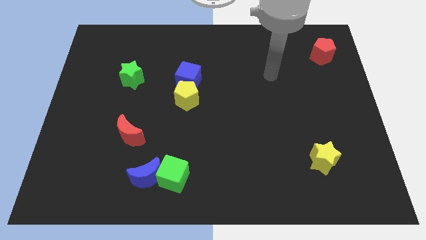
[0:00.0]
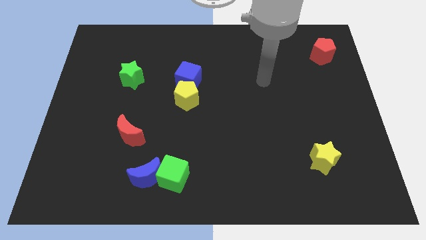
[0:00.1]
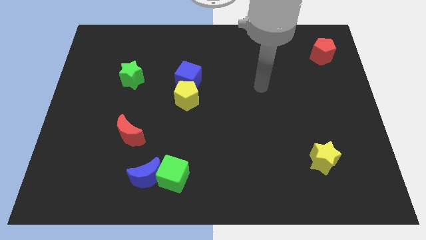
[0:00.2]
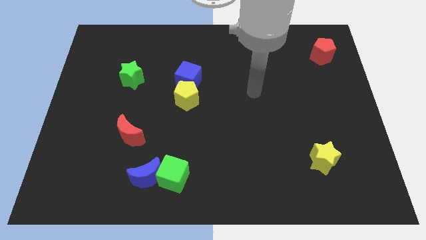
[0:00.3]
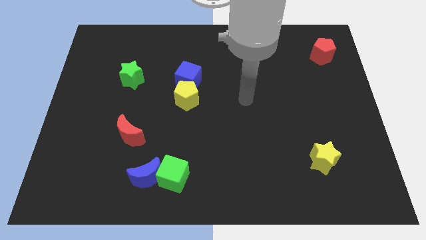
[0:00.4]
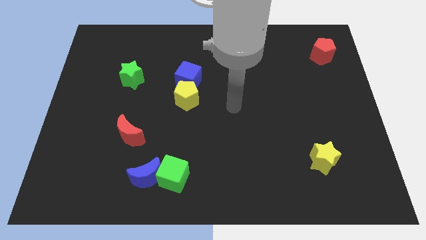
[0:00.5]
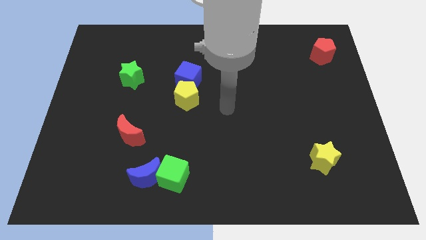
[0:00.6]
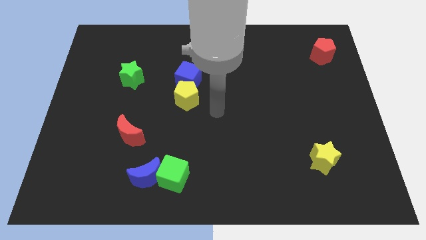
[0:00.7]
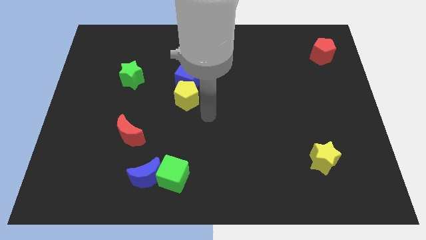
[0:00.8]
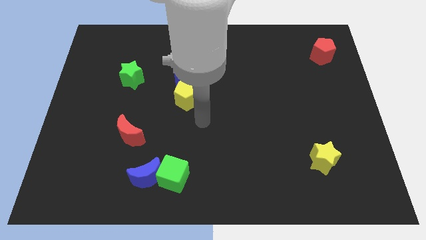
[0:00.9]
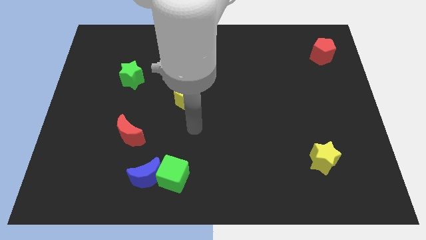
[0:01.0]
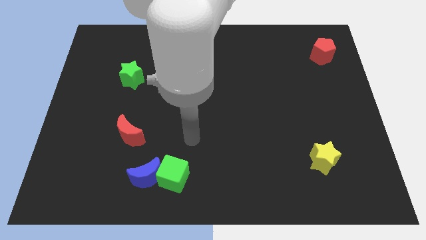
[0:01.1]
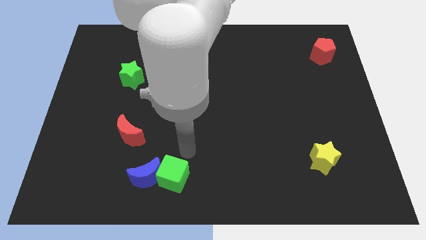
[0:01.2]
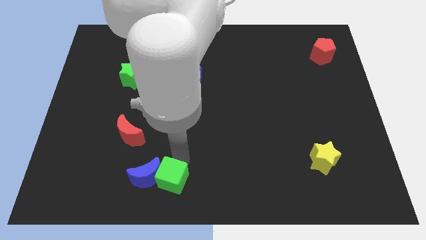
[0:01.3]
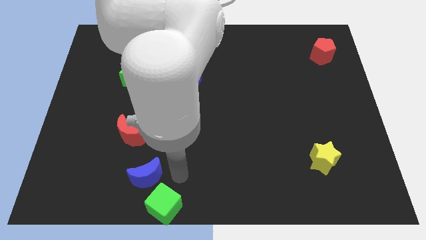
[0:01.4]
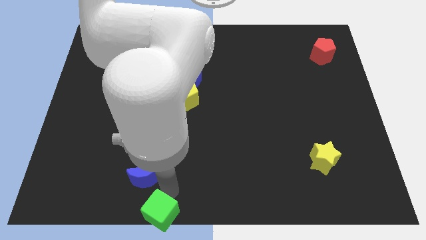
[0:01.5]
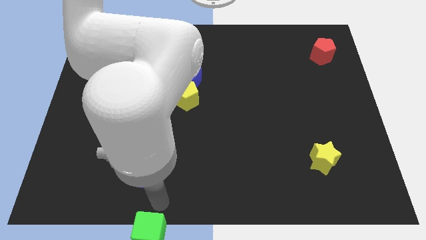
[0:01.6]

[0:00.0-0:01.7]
separate the blue moon from the green cube

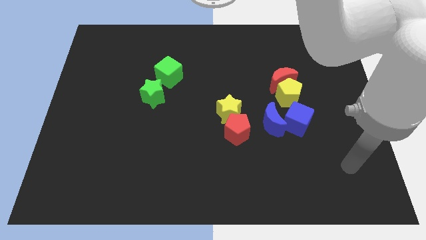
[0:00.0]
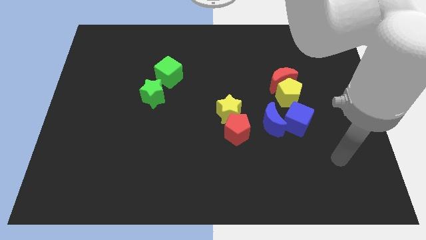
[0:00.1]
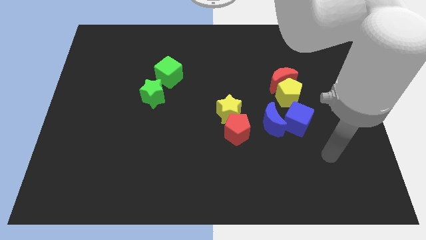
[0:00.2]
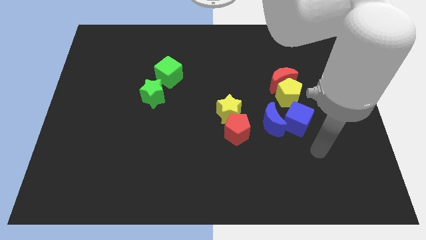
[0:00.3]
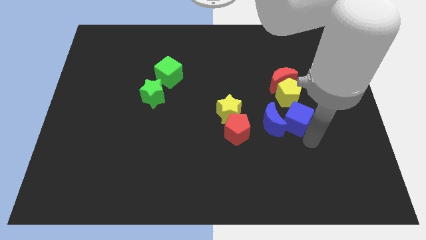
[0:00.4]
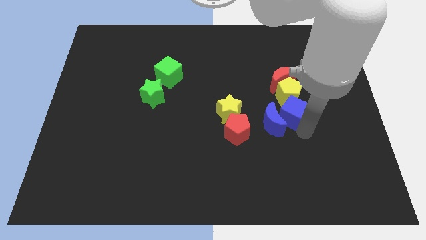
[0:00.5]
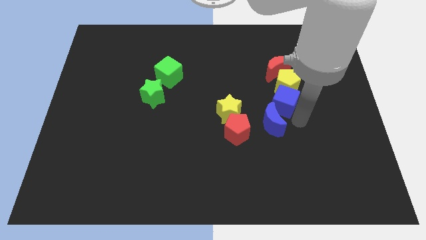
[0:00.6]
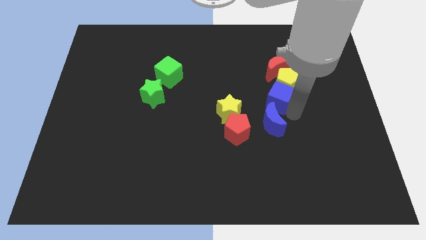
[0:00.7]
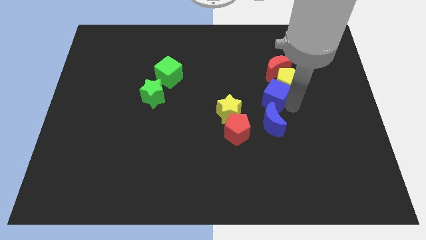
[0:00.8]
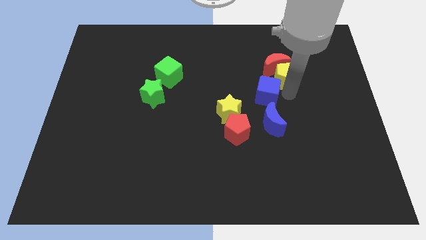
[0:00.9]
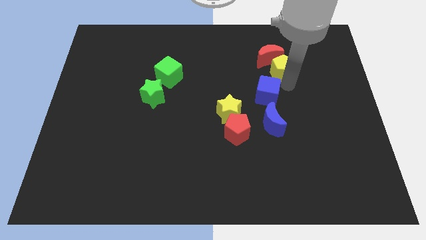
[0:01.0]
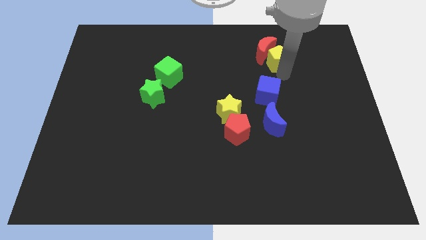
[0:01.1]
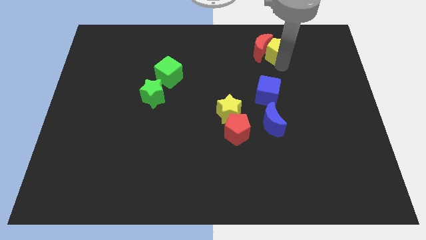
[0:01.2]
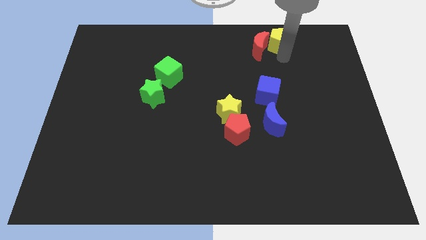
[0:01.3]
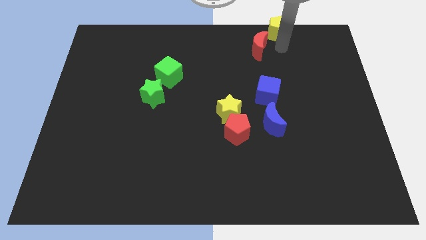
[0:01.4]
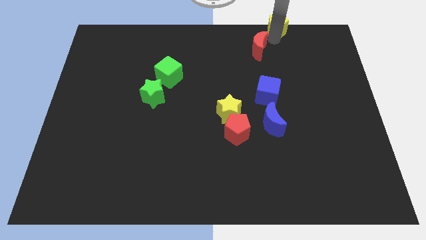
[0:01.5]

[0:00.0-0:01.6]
separate the red moon from the yellow pentagon

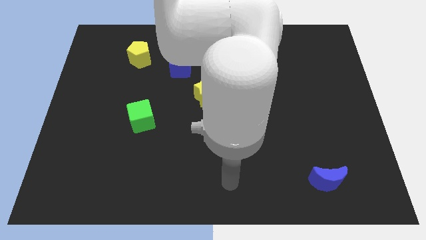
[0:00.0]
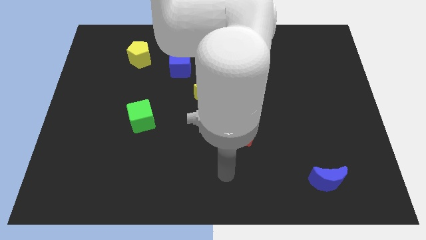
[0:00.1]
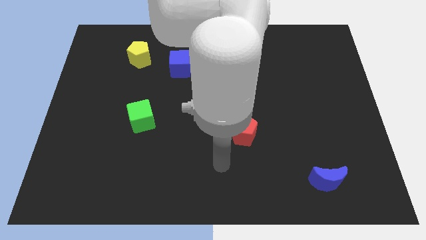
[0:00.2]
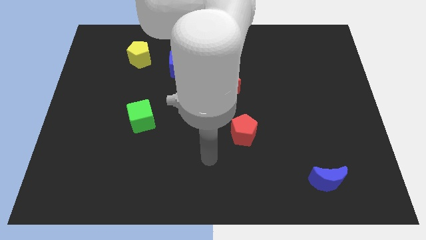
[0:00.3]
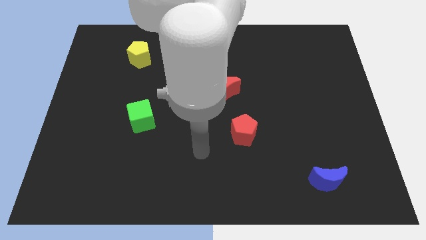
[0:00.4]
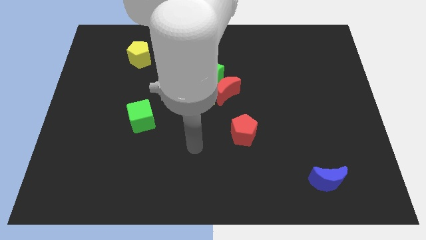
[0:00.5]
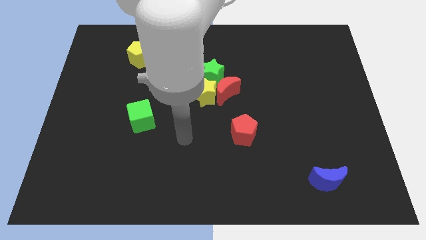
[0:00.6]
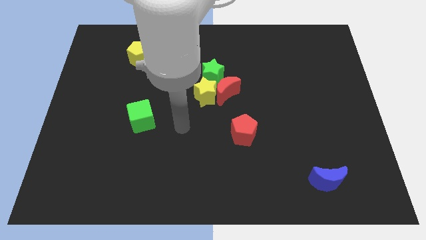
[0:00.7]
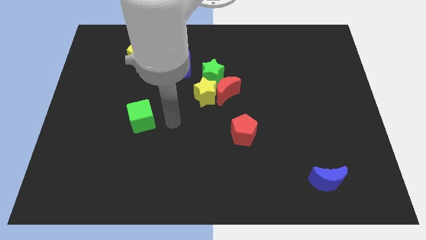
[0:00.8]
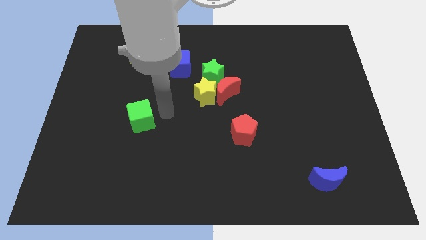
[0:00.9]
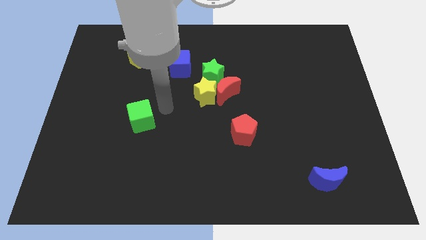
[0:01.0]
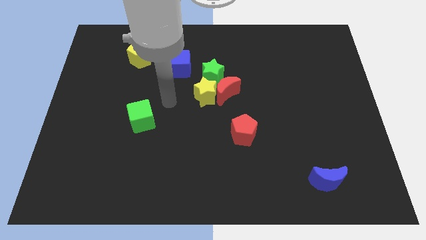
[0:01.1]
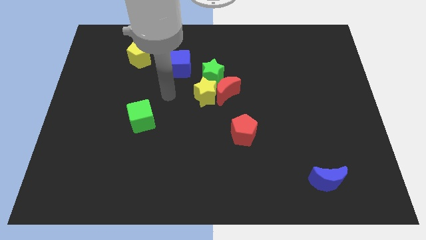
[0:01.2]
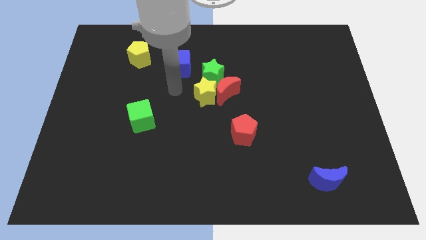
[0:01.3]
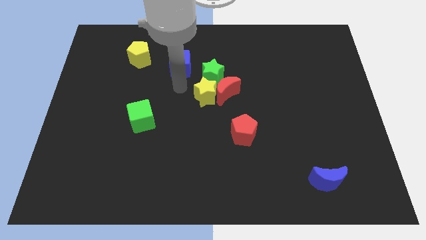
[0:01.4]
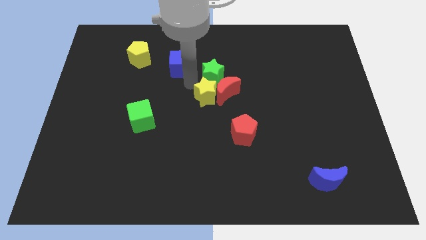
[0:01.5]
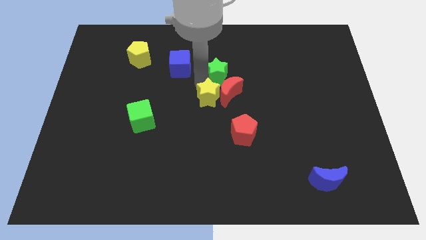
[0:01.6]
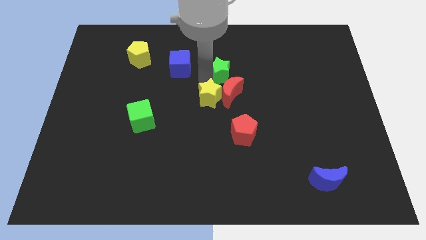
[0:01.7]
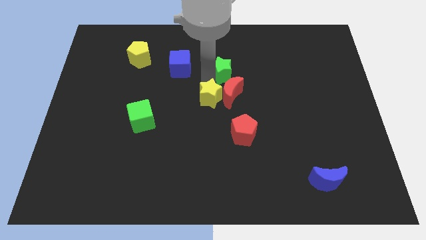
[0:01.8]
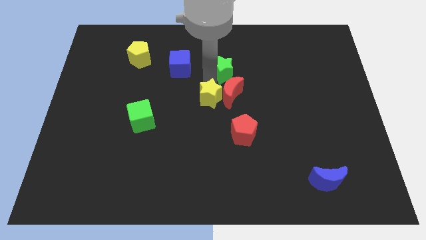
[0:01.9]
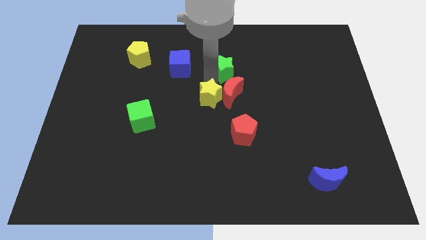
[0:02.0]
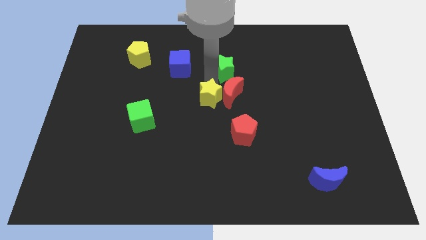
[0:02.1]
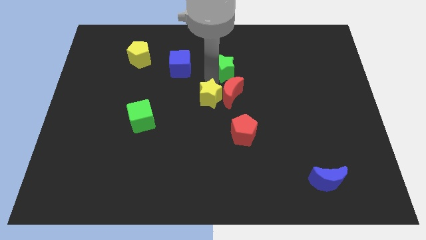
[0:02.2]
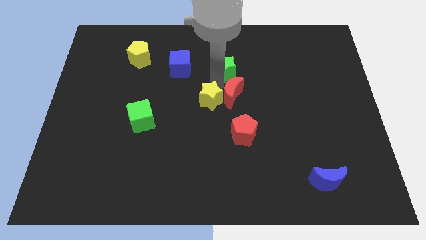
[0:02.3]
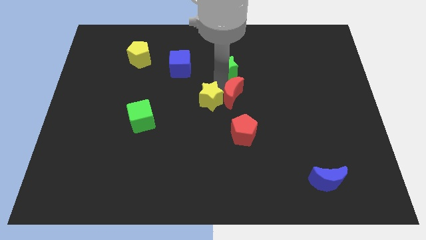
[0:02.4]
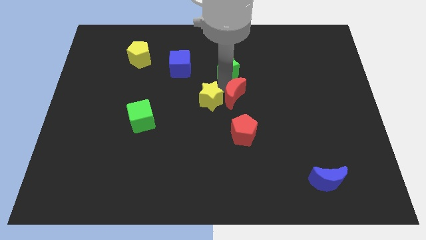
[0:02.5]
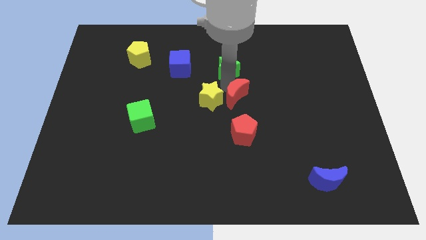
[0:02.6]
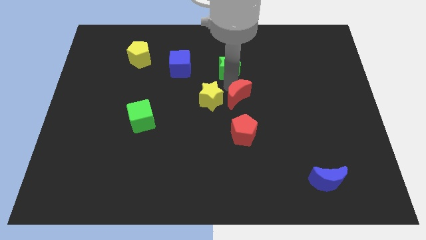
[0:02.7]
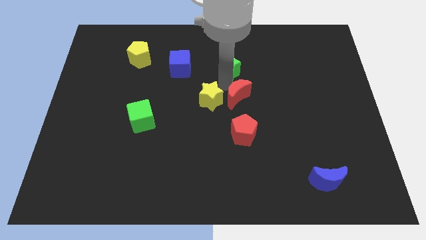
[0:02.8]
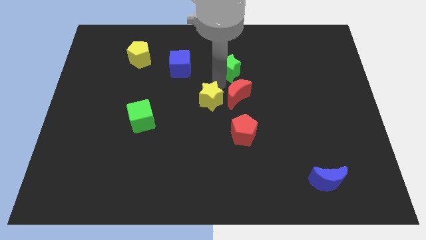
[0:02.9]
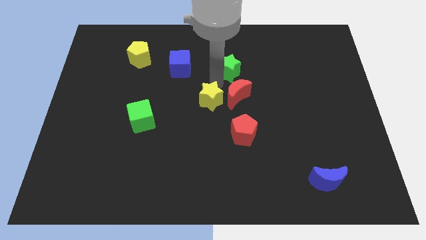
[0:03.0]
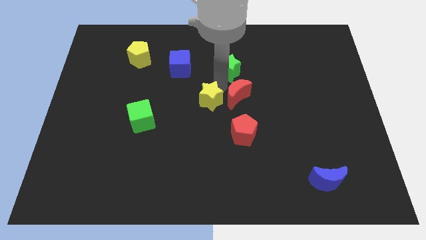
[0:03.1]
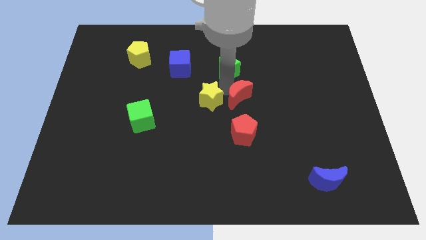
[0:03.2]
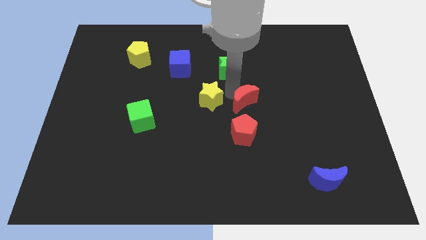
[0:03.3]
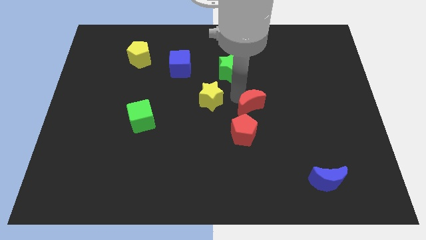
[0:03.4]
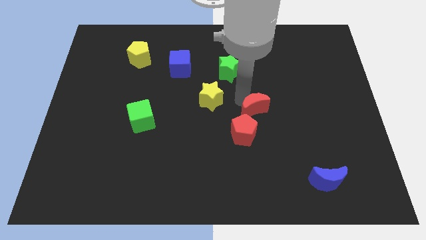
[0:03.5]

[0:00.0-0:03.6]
separate the red moon from the yellow star and green star

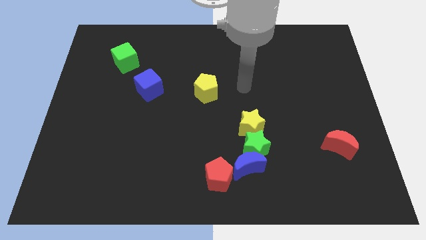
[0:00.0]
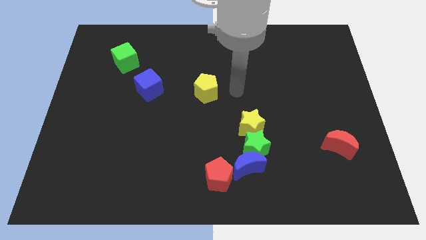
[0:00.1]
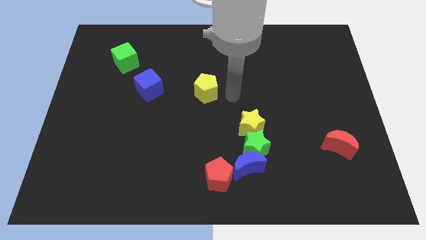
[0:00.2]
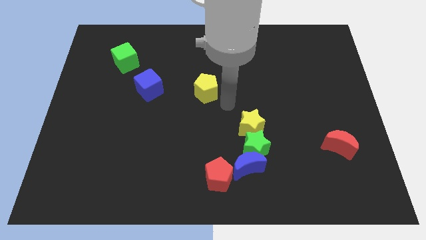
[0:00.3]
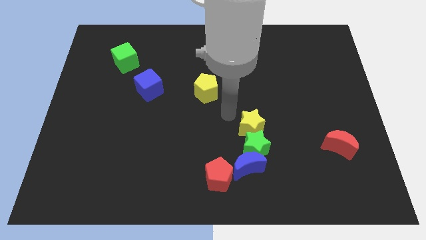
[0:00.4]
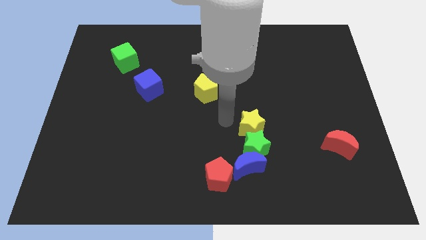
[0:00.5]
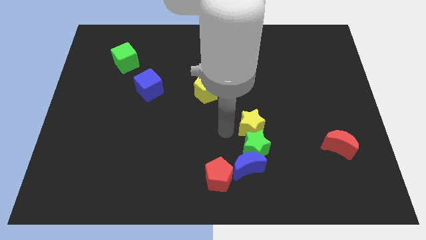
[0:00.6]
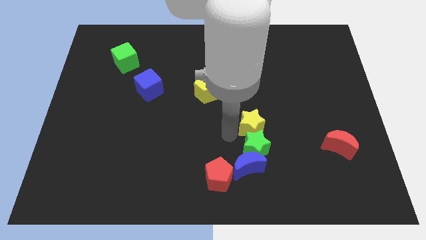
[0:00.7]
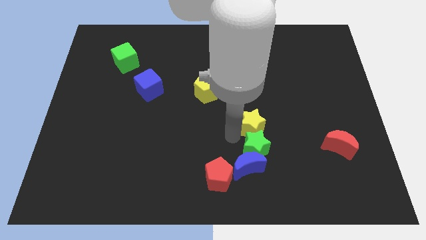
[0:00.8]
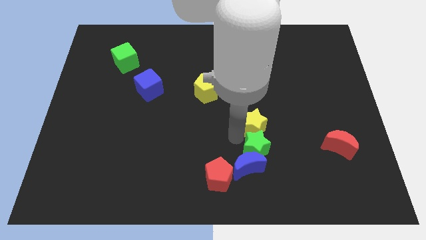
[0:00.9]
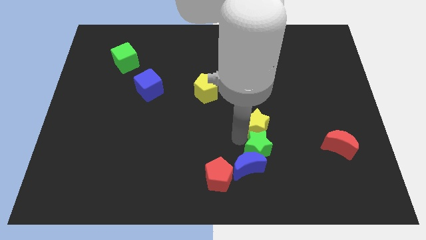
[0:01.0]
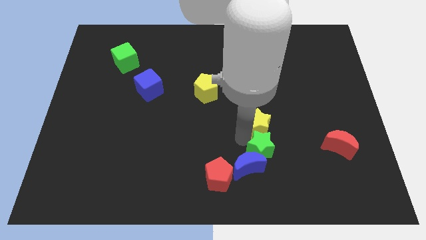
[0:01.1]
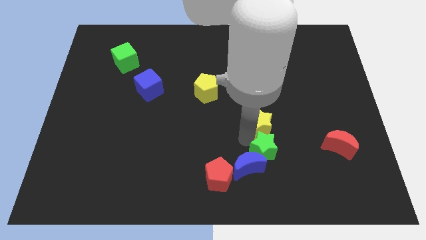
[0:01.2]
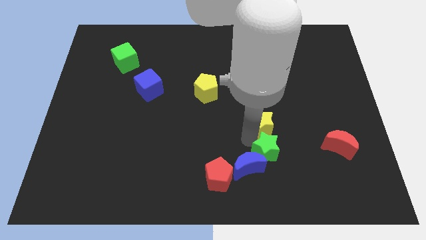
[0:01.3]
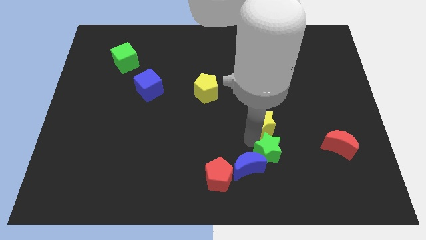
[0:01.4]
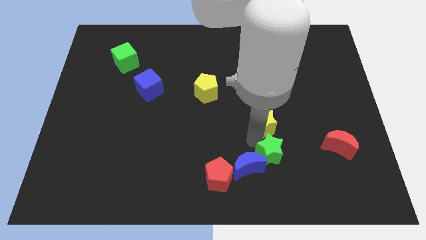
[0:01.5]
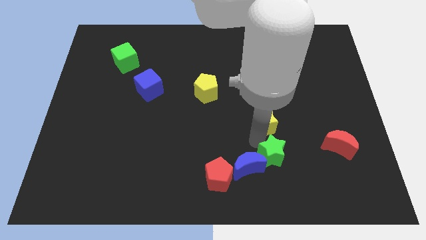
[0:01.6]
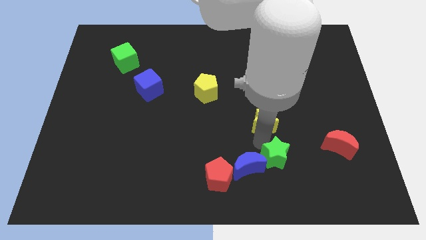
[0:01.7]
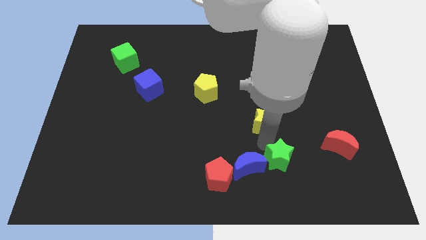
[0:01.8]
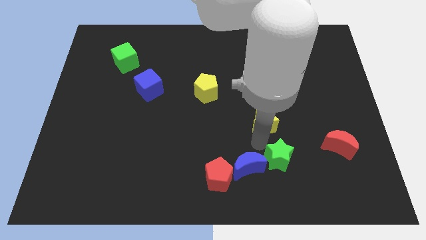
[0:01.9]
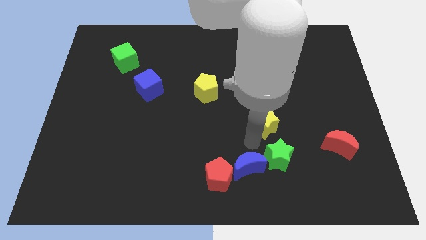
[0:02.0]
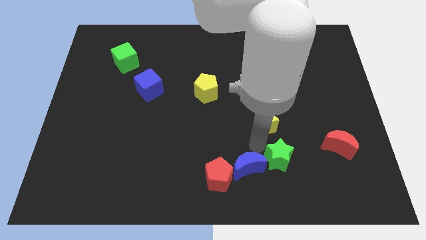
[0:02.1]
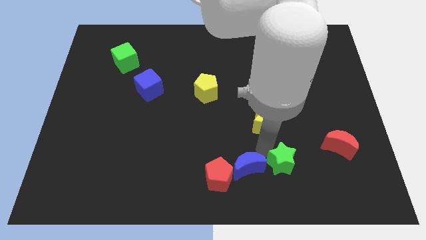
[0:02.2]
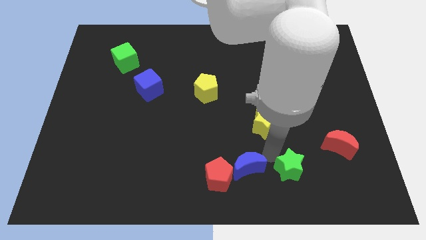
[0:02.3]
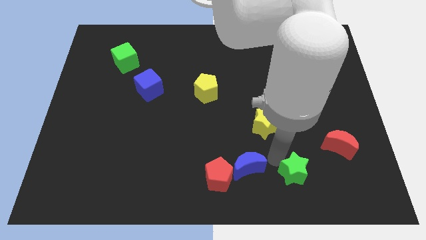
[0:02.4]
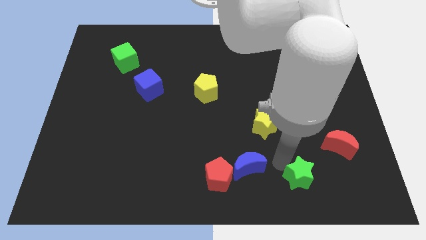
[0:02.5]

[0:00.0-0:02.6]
pull the green star apart from the blue moon and yellow star

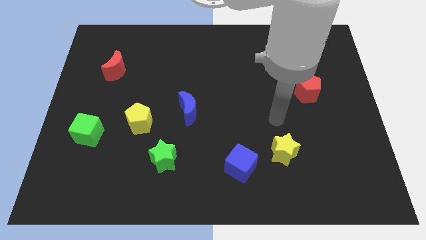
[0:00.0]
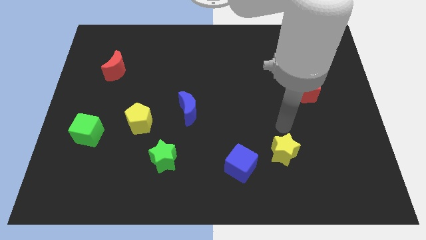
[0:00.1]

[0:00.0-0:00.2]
pull the blue cube apart from the yellow star
